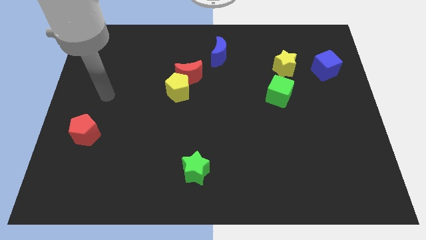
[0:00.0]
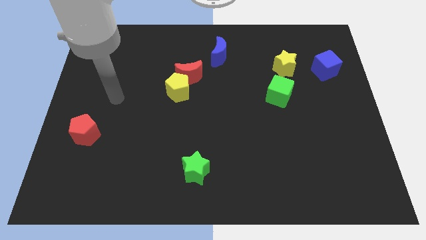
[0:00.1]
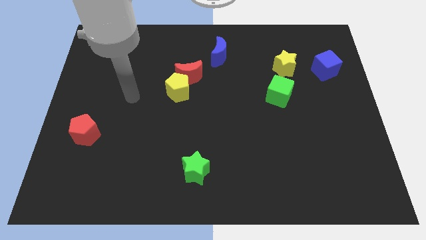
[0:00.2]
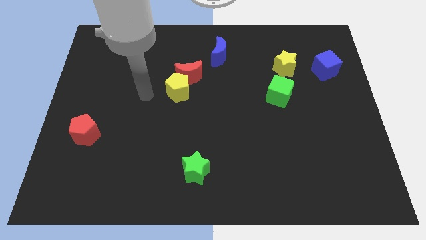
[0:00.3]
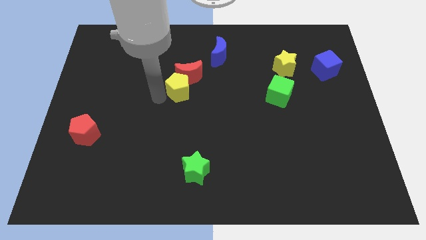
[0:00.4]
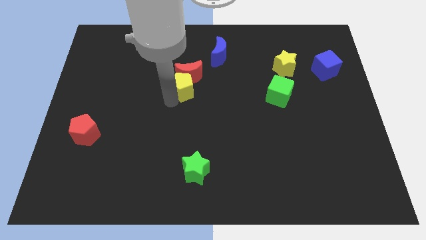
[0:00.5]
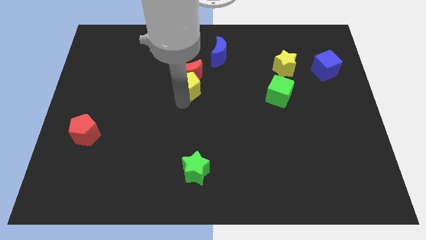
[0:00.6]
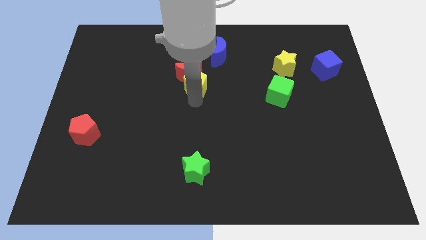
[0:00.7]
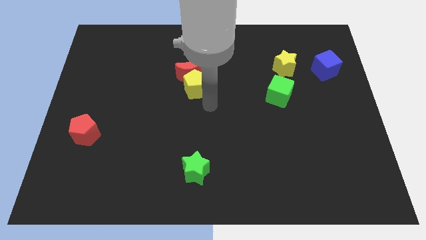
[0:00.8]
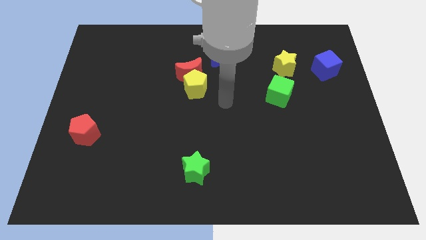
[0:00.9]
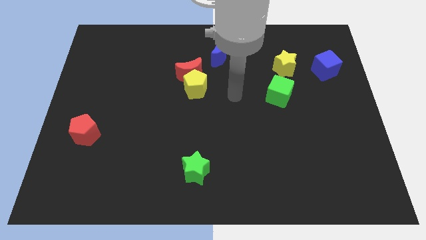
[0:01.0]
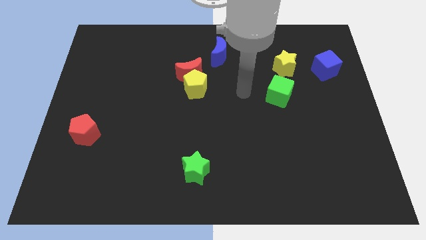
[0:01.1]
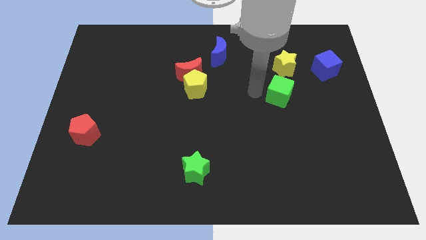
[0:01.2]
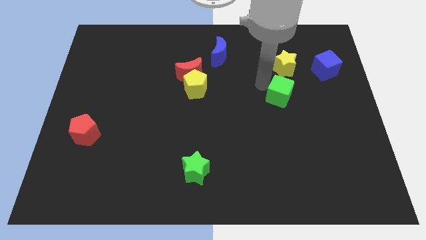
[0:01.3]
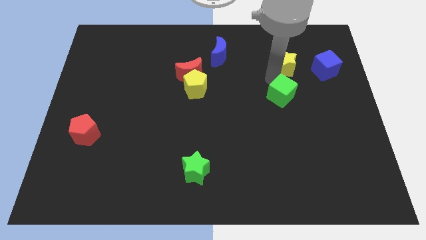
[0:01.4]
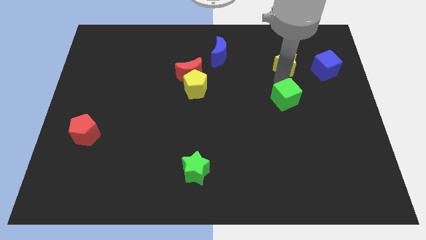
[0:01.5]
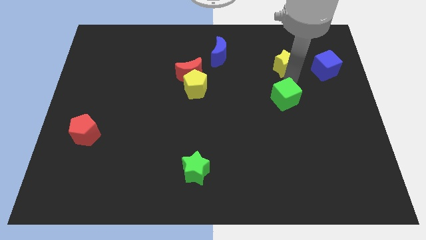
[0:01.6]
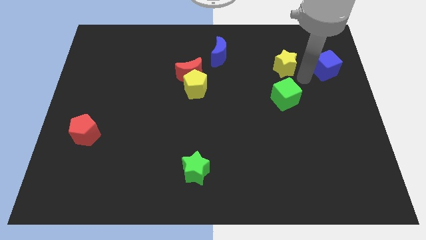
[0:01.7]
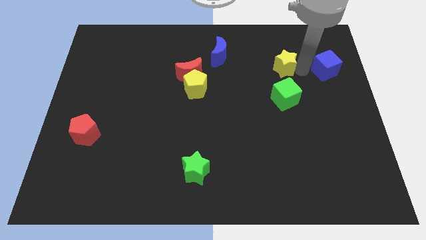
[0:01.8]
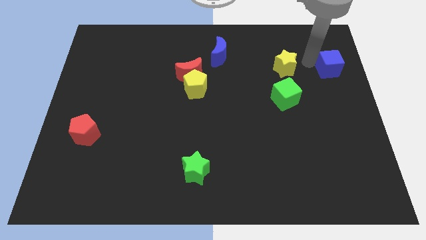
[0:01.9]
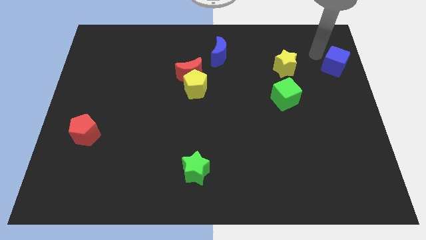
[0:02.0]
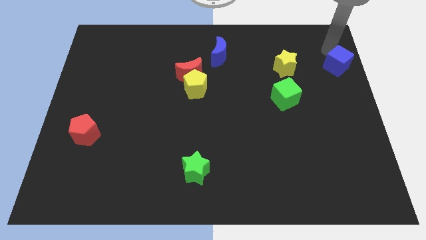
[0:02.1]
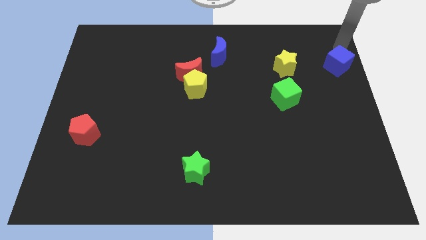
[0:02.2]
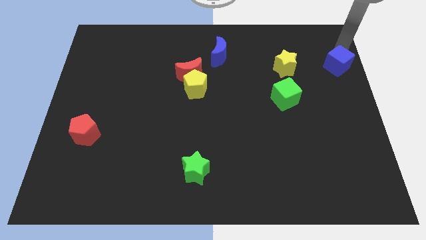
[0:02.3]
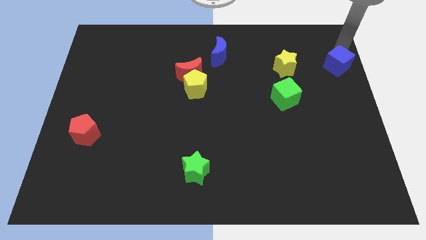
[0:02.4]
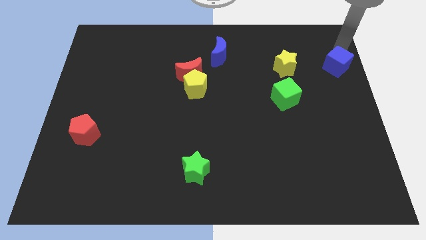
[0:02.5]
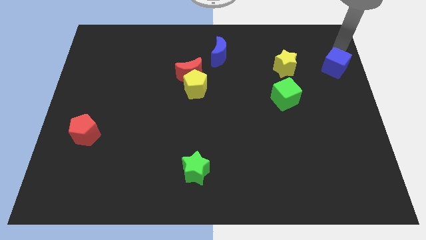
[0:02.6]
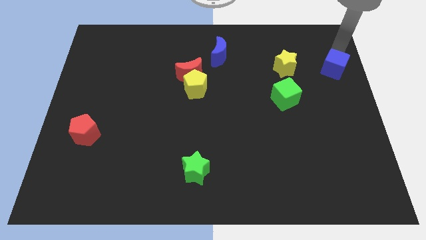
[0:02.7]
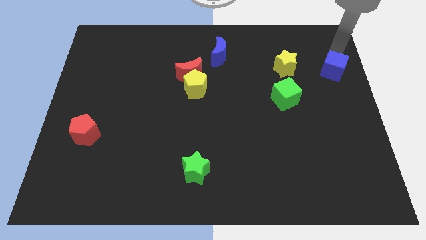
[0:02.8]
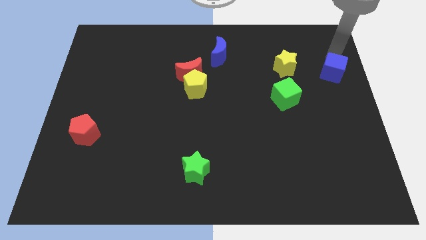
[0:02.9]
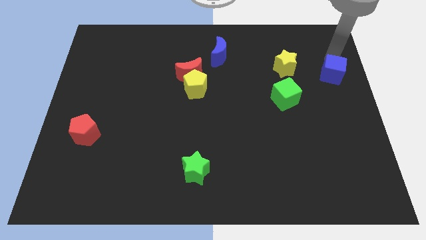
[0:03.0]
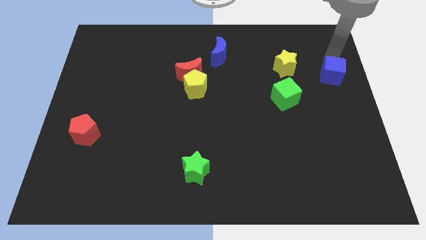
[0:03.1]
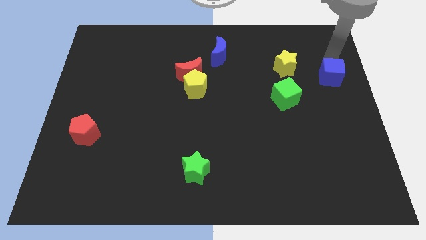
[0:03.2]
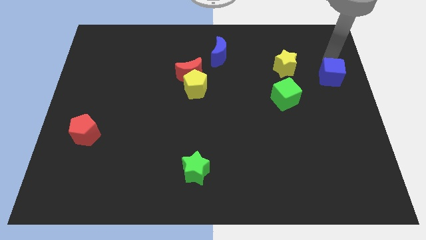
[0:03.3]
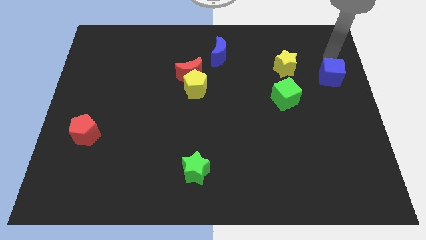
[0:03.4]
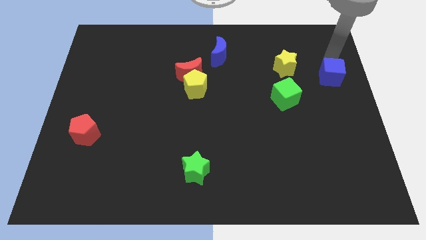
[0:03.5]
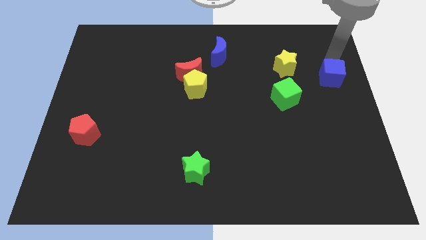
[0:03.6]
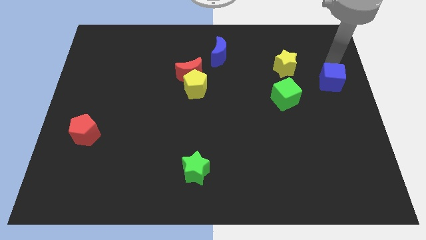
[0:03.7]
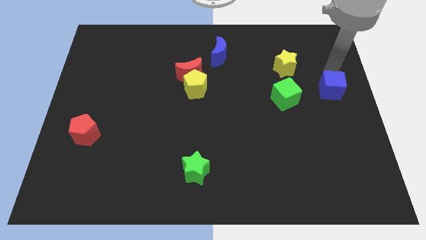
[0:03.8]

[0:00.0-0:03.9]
slightly move the blue cube downwards

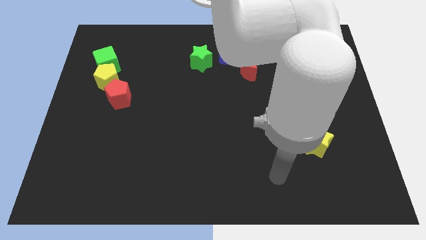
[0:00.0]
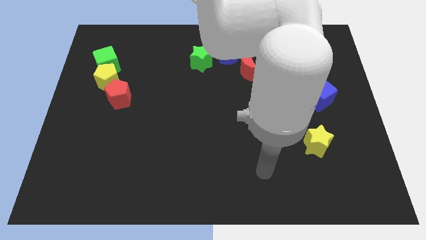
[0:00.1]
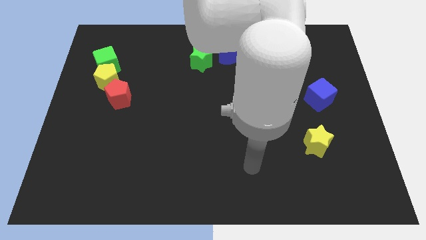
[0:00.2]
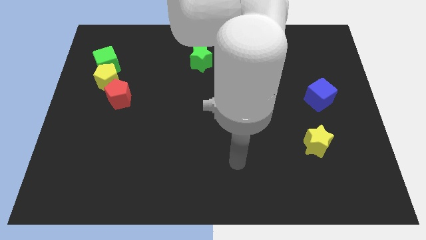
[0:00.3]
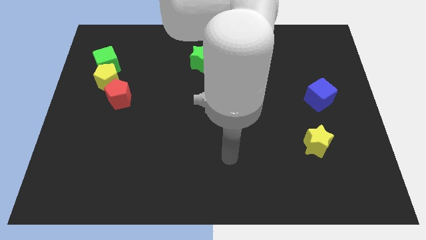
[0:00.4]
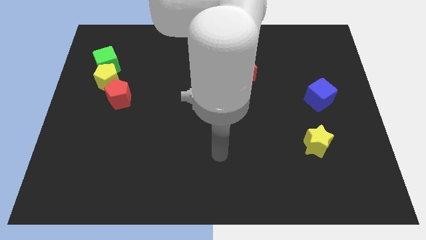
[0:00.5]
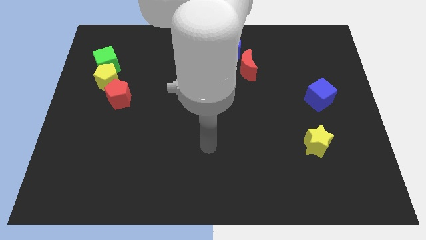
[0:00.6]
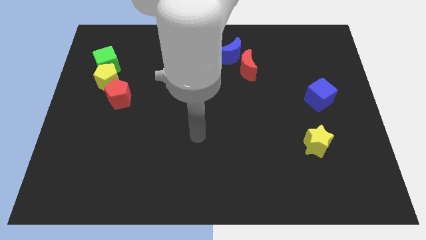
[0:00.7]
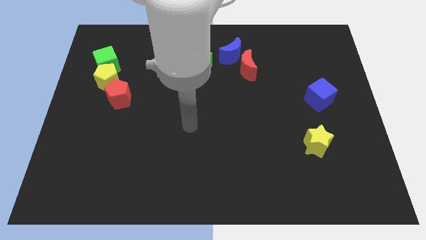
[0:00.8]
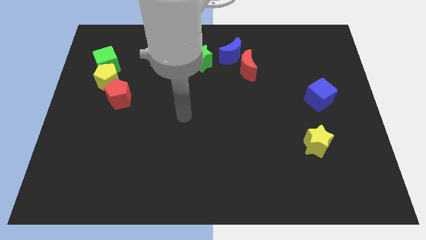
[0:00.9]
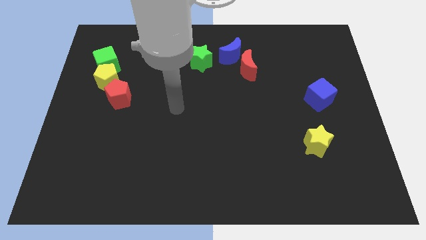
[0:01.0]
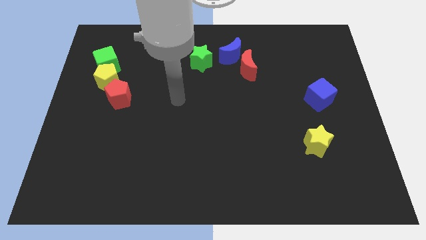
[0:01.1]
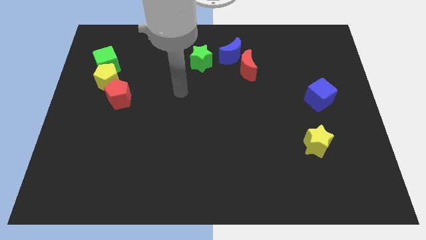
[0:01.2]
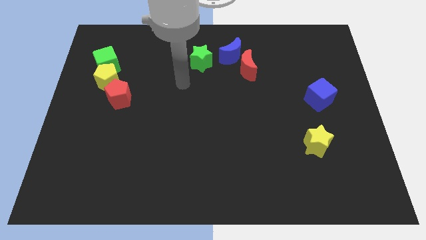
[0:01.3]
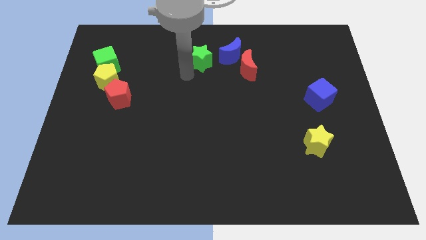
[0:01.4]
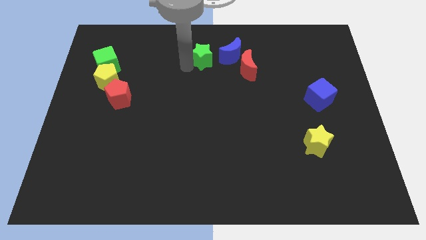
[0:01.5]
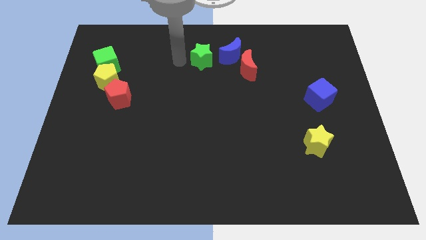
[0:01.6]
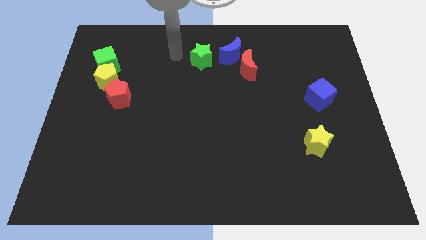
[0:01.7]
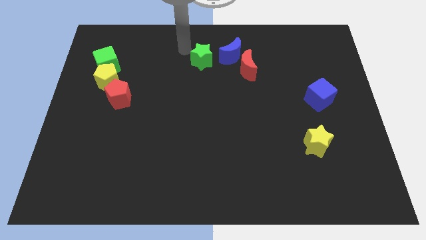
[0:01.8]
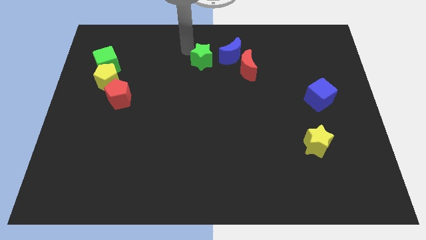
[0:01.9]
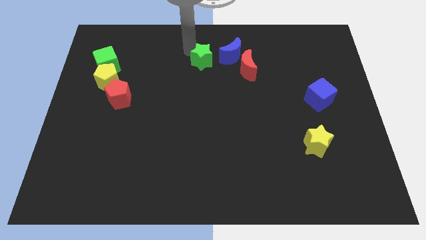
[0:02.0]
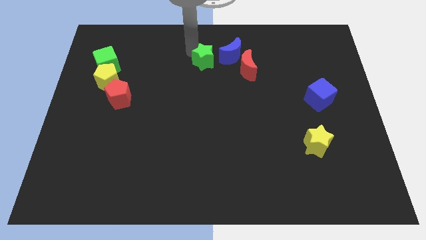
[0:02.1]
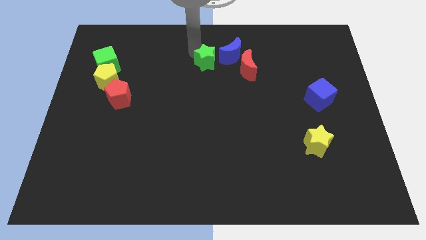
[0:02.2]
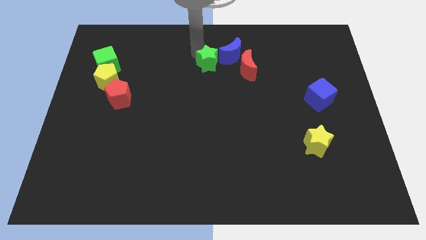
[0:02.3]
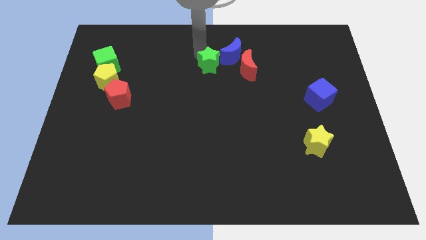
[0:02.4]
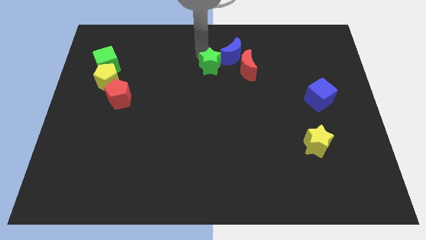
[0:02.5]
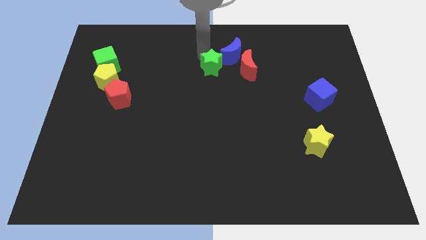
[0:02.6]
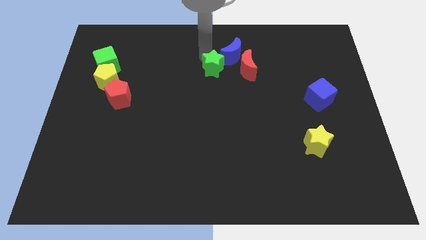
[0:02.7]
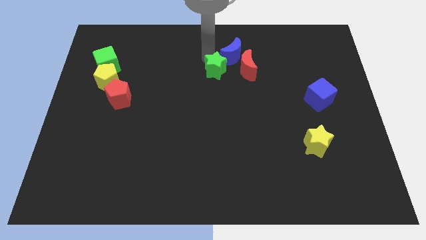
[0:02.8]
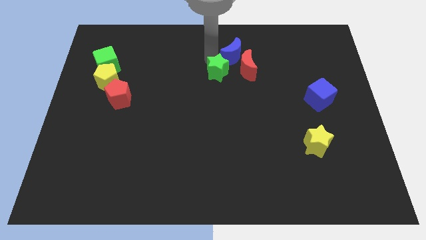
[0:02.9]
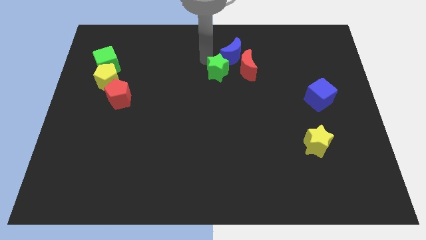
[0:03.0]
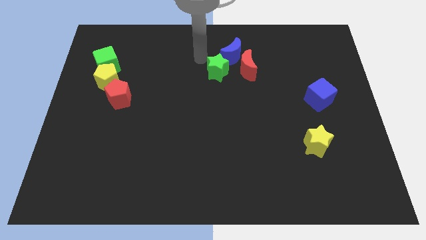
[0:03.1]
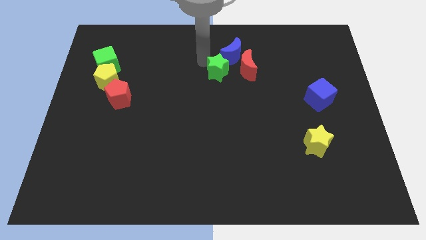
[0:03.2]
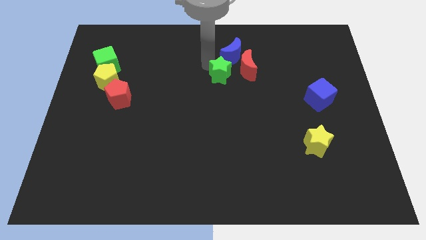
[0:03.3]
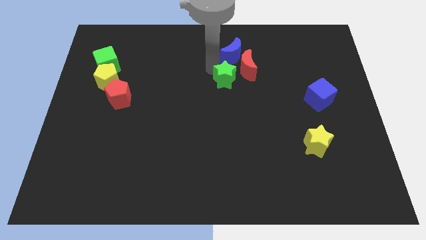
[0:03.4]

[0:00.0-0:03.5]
move the green star downwards and then to the right a bit

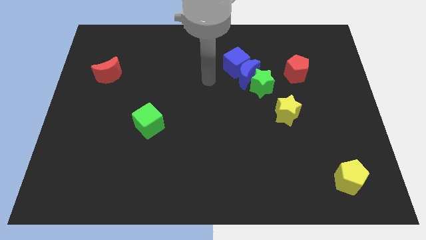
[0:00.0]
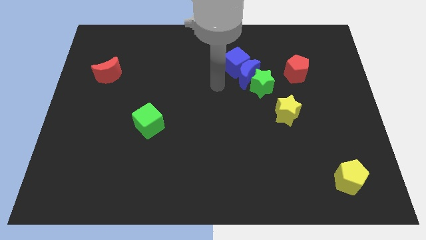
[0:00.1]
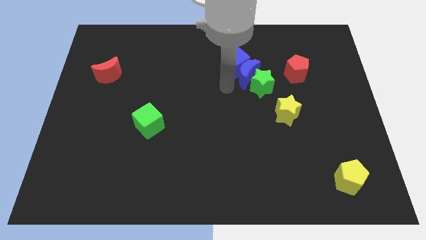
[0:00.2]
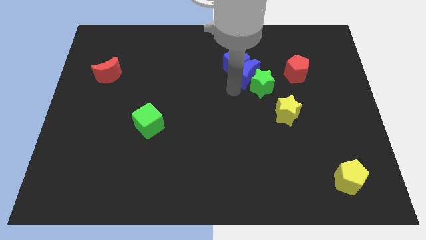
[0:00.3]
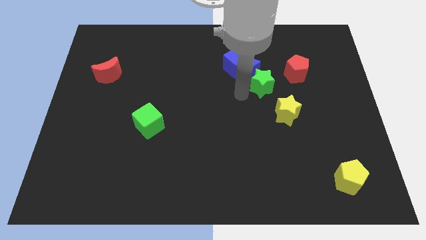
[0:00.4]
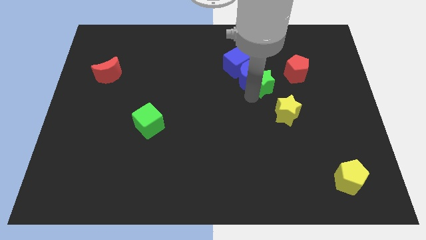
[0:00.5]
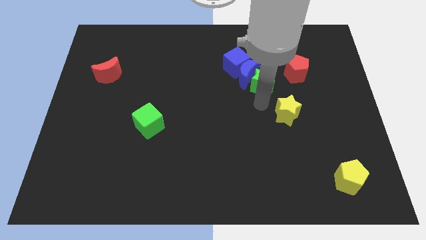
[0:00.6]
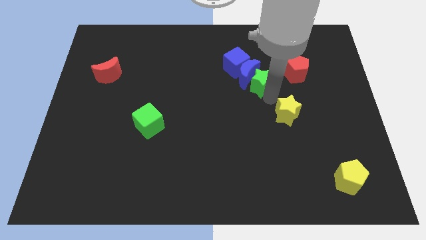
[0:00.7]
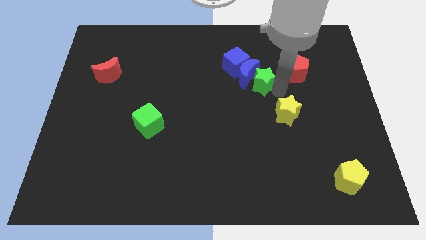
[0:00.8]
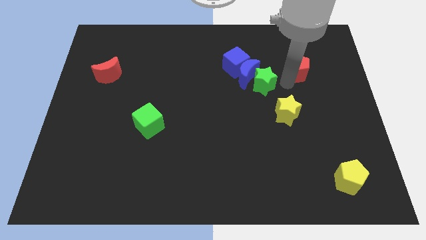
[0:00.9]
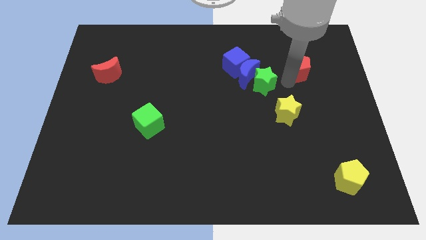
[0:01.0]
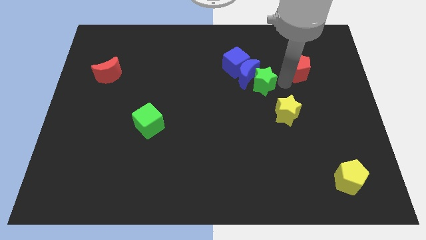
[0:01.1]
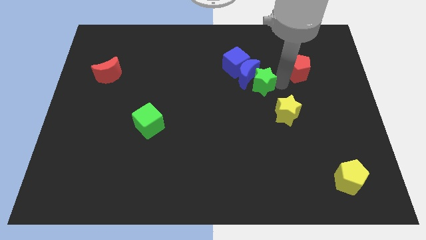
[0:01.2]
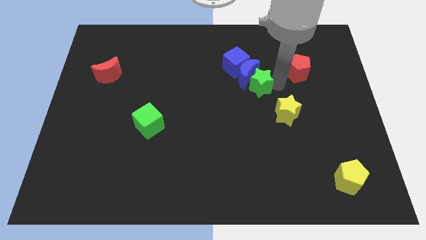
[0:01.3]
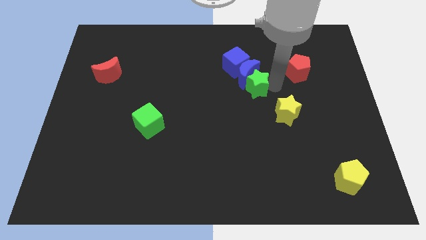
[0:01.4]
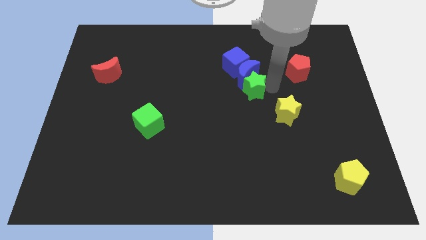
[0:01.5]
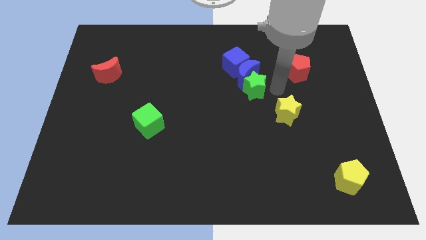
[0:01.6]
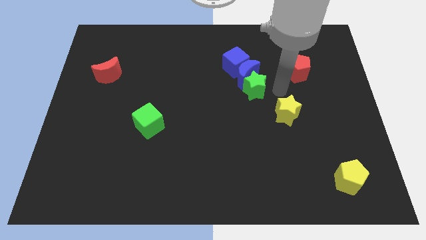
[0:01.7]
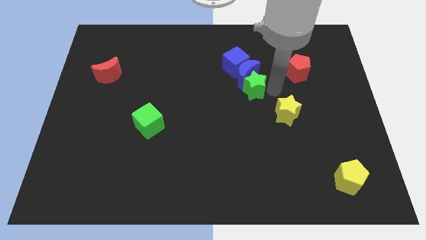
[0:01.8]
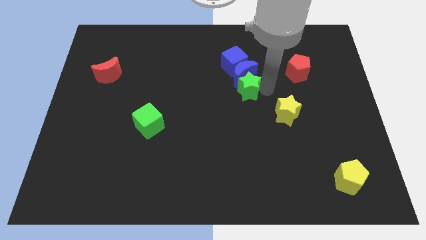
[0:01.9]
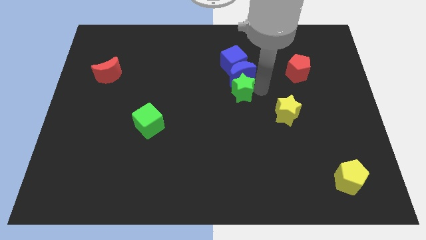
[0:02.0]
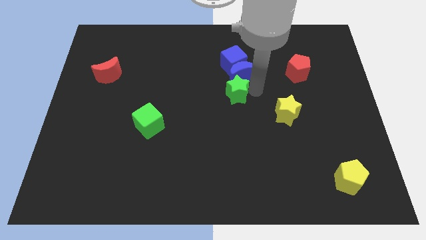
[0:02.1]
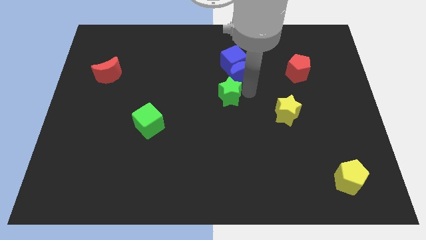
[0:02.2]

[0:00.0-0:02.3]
slide the green star to the left a little
